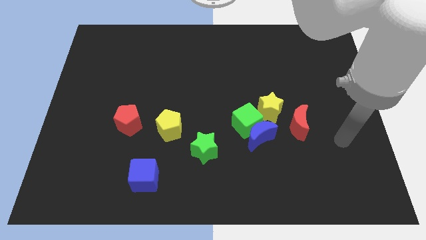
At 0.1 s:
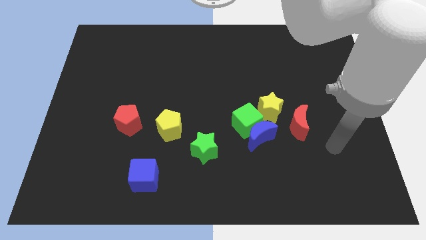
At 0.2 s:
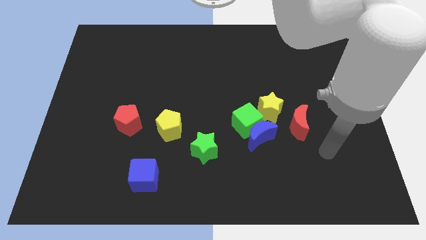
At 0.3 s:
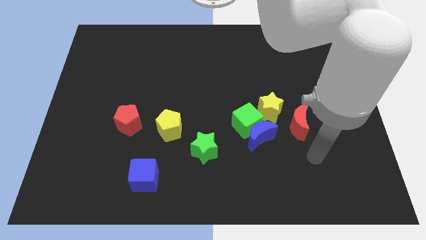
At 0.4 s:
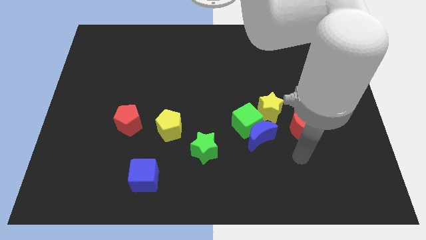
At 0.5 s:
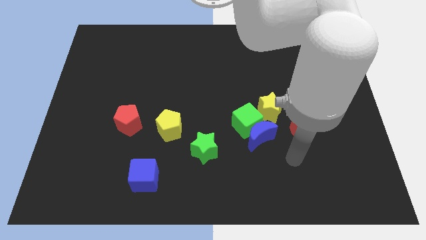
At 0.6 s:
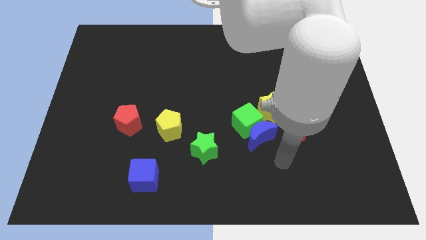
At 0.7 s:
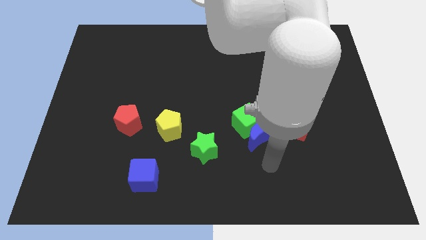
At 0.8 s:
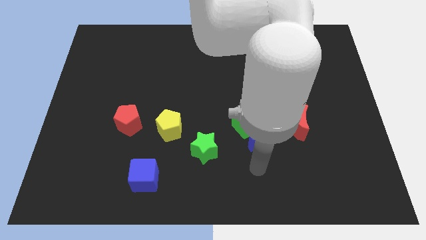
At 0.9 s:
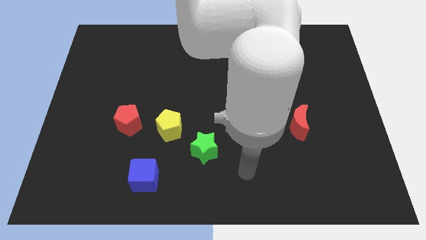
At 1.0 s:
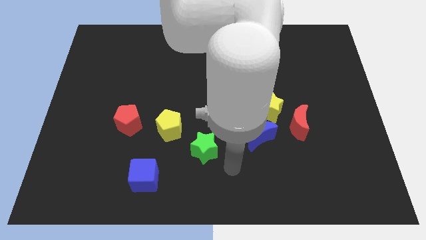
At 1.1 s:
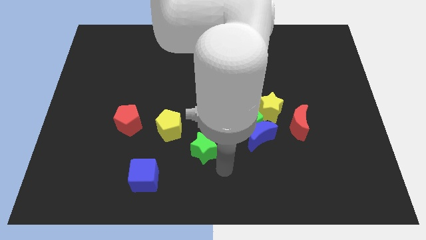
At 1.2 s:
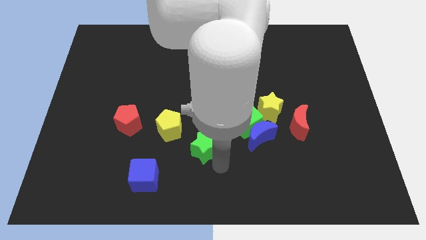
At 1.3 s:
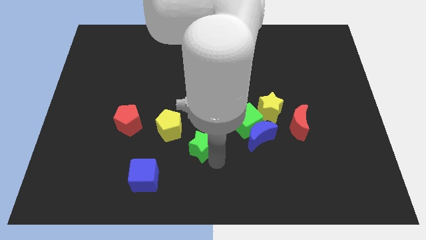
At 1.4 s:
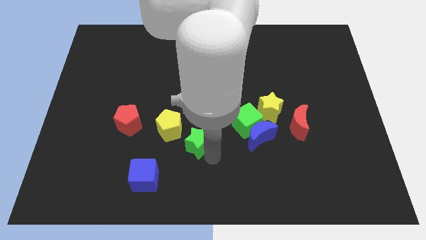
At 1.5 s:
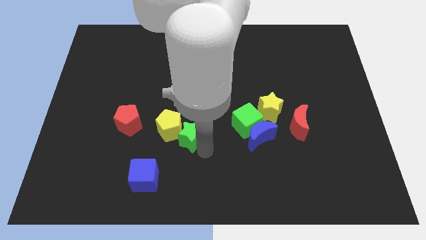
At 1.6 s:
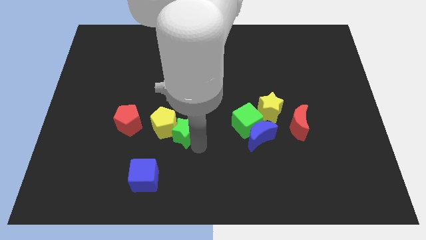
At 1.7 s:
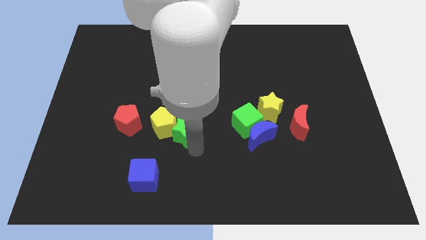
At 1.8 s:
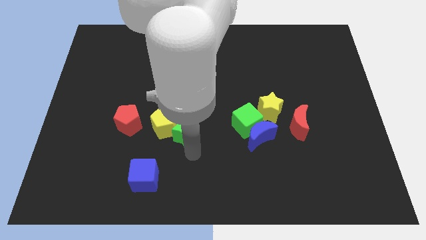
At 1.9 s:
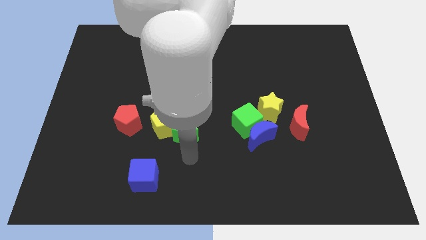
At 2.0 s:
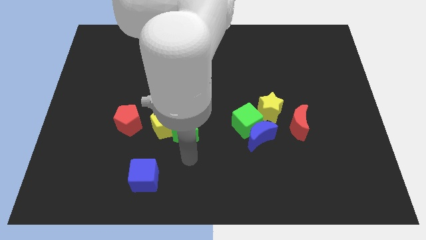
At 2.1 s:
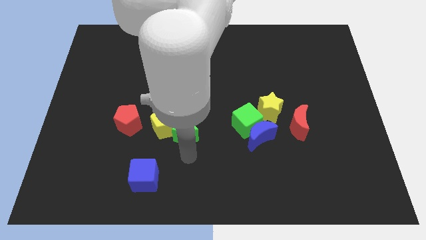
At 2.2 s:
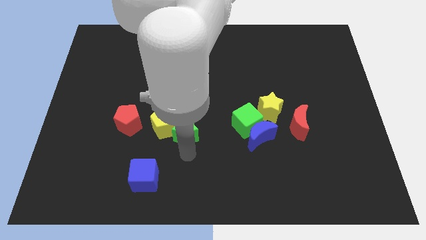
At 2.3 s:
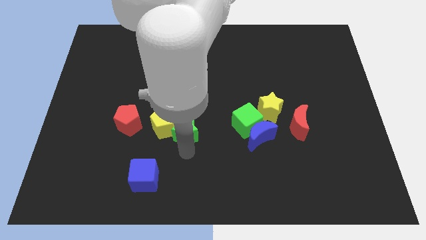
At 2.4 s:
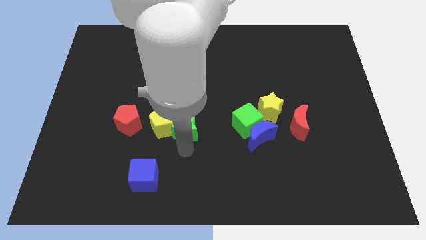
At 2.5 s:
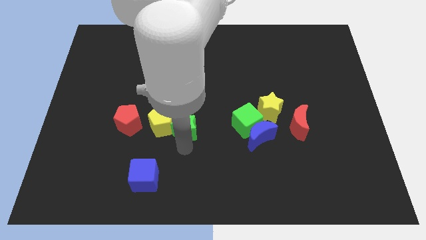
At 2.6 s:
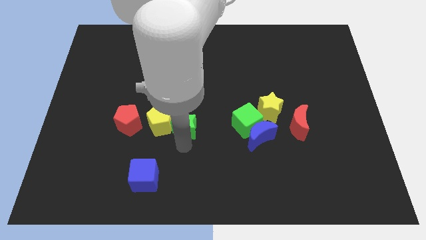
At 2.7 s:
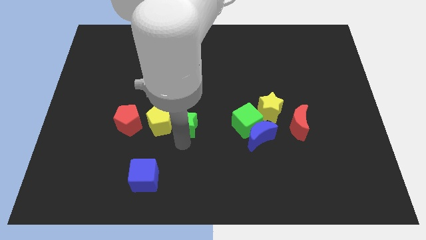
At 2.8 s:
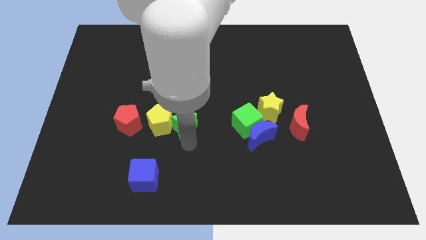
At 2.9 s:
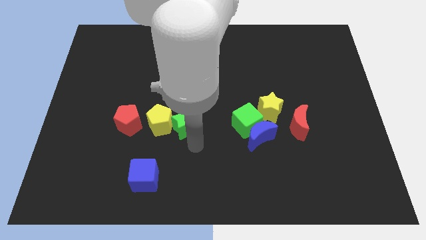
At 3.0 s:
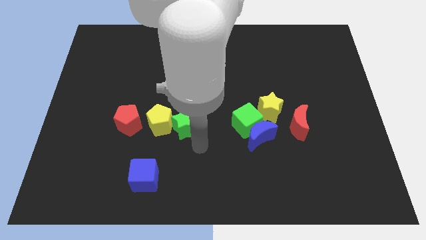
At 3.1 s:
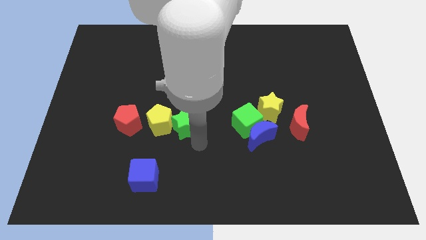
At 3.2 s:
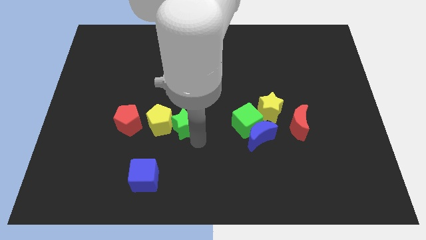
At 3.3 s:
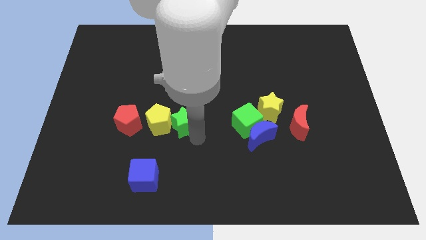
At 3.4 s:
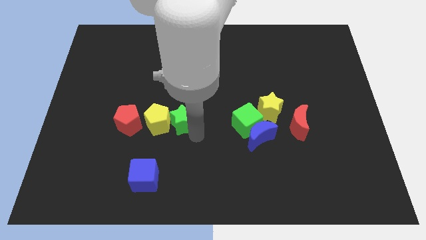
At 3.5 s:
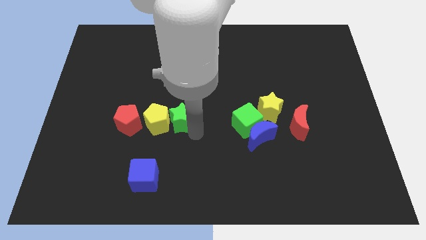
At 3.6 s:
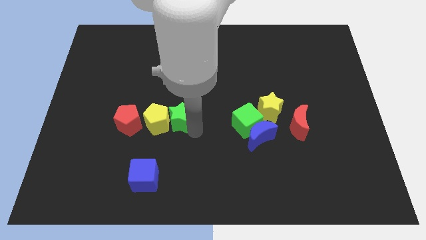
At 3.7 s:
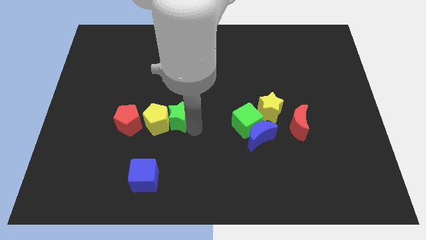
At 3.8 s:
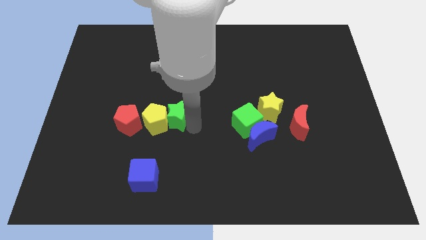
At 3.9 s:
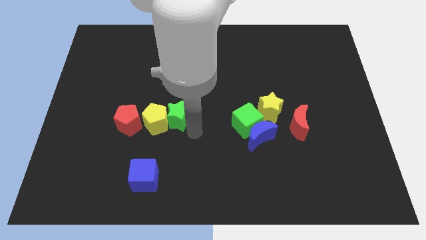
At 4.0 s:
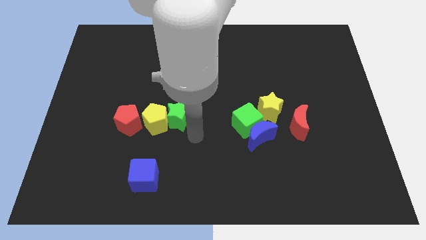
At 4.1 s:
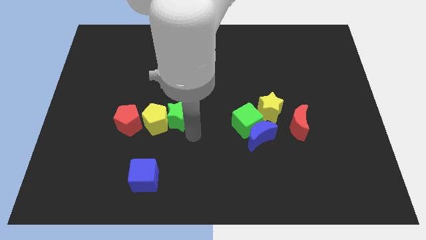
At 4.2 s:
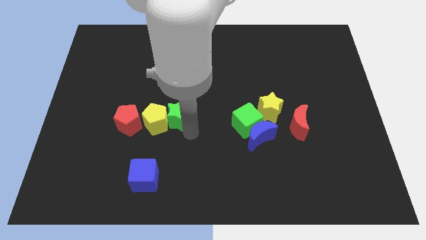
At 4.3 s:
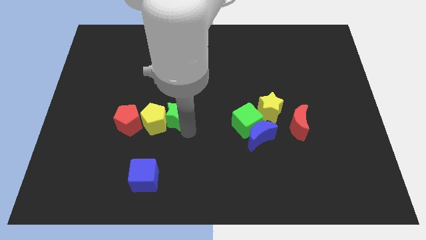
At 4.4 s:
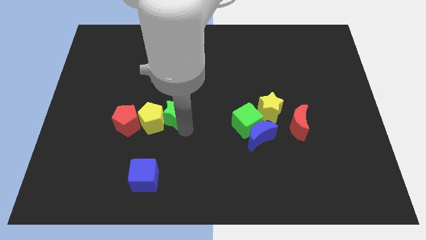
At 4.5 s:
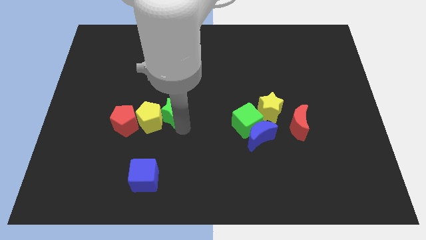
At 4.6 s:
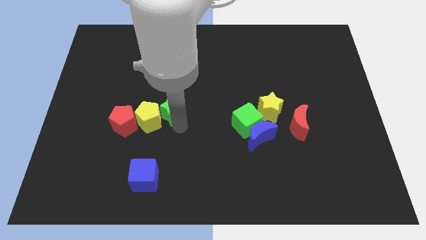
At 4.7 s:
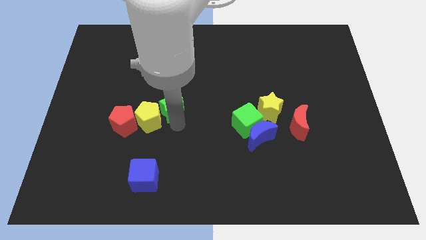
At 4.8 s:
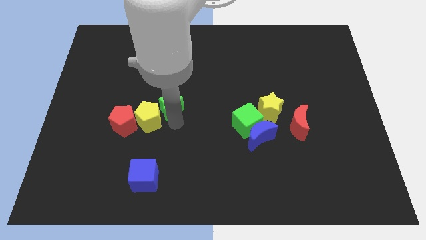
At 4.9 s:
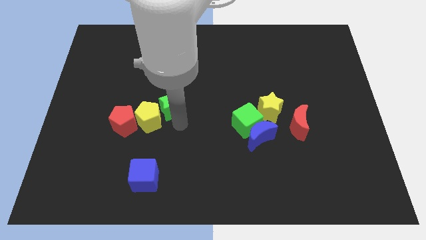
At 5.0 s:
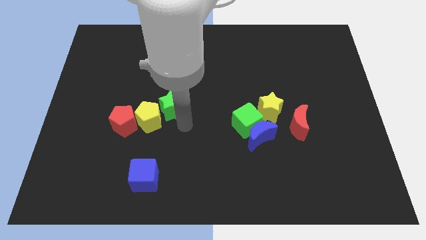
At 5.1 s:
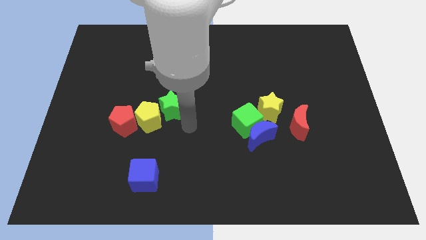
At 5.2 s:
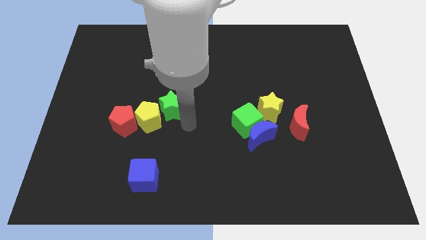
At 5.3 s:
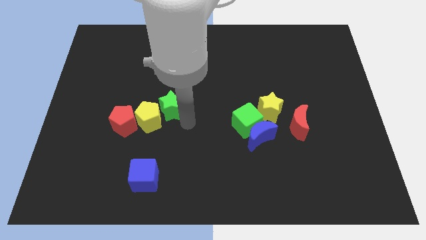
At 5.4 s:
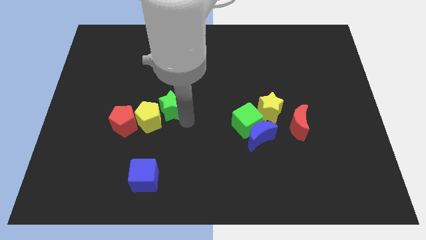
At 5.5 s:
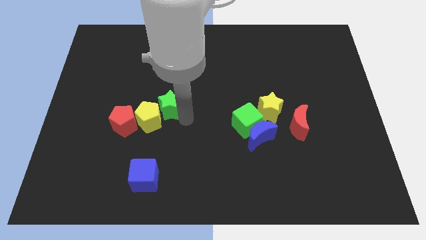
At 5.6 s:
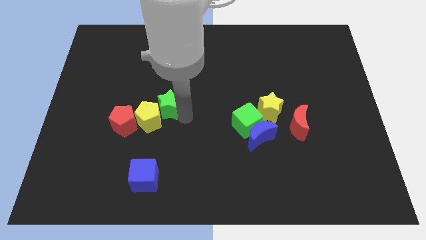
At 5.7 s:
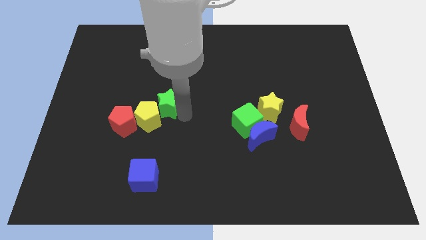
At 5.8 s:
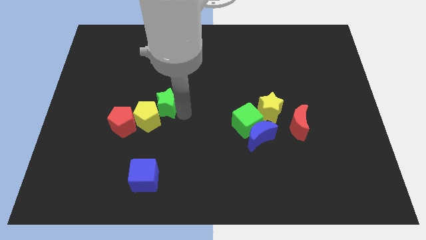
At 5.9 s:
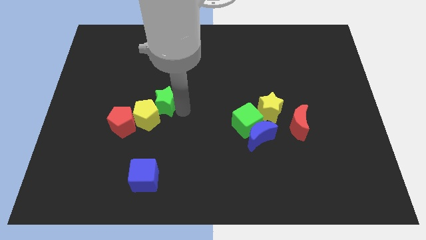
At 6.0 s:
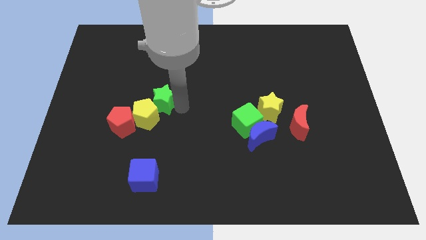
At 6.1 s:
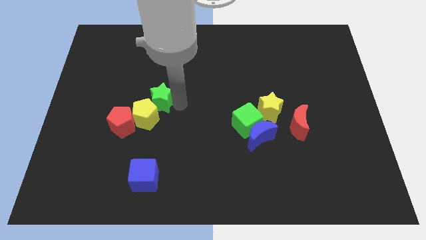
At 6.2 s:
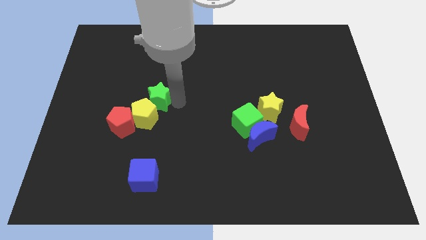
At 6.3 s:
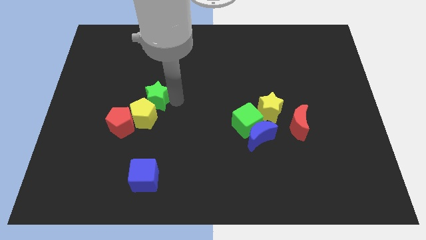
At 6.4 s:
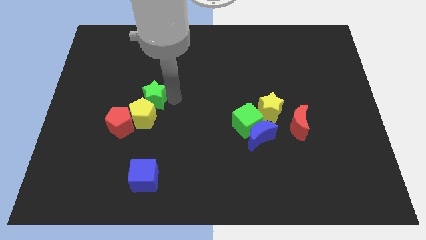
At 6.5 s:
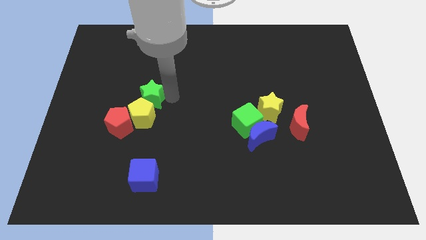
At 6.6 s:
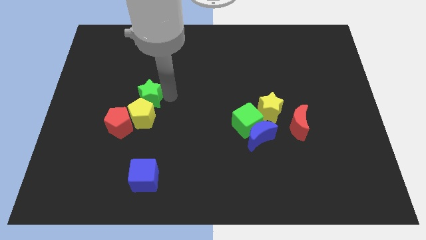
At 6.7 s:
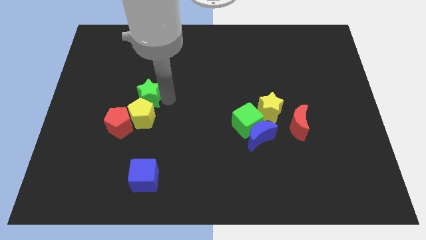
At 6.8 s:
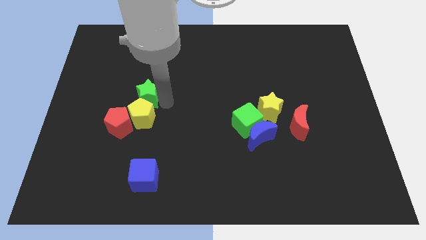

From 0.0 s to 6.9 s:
move the green star diagonally up and to the left

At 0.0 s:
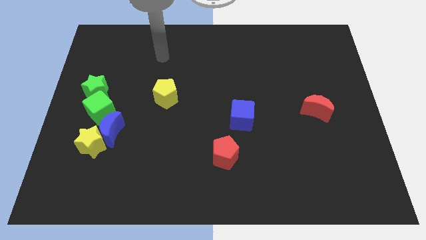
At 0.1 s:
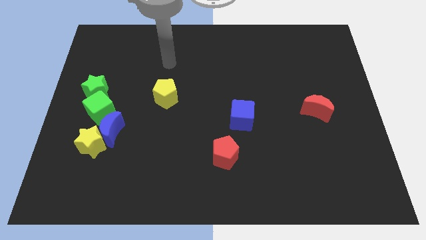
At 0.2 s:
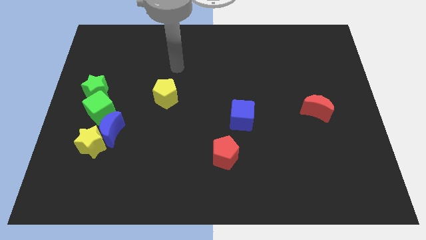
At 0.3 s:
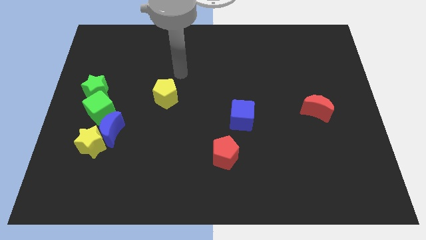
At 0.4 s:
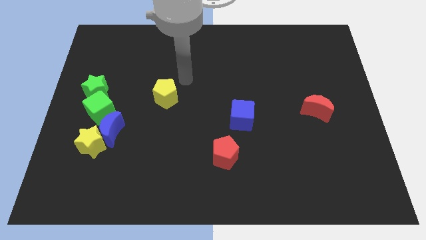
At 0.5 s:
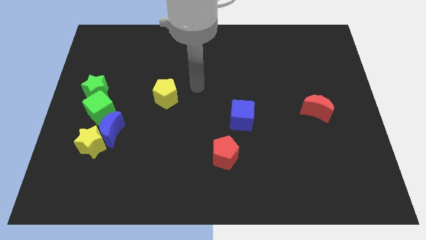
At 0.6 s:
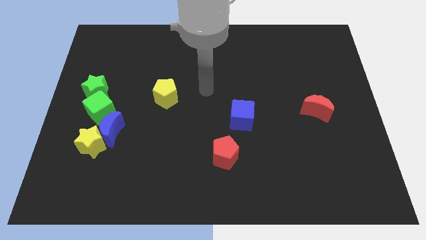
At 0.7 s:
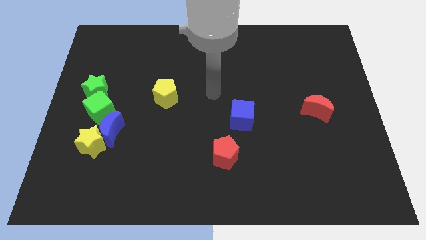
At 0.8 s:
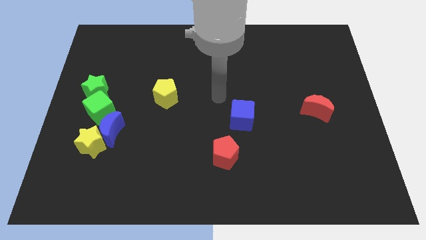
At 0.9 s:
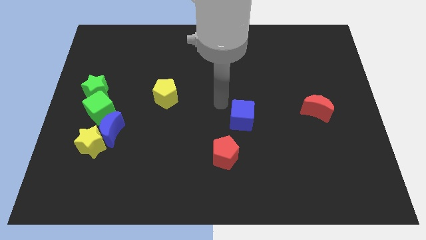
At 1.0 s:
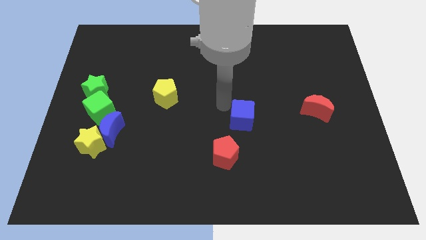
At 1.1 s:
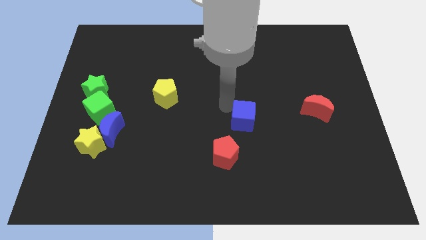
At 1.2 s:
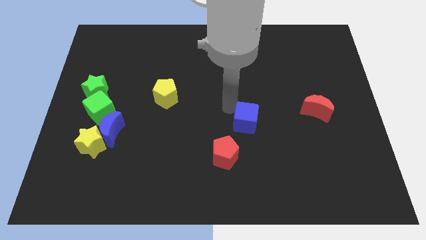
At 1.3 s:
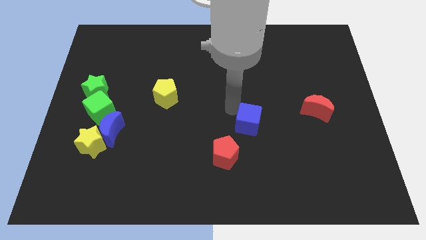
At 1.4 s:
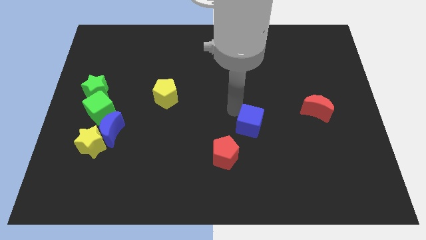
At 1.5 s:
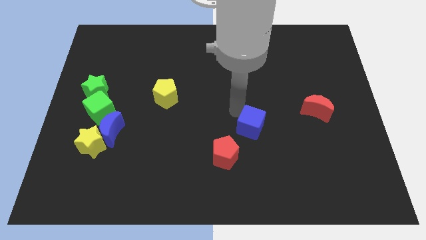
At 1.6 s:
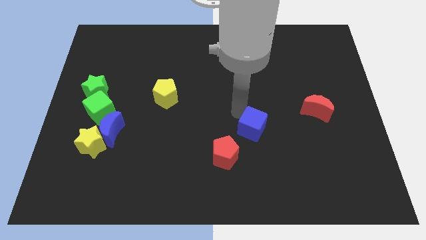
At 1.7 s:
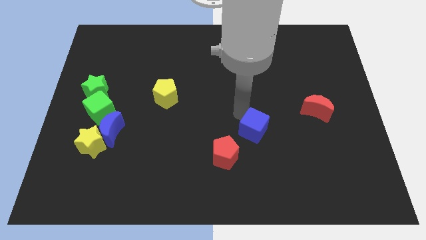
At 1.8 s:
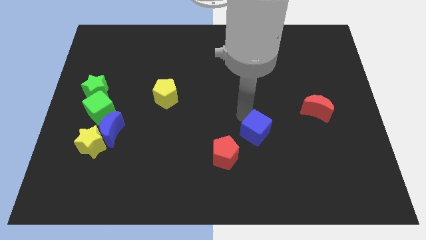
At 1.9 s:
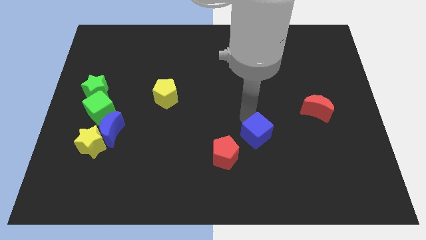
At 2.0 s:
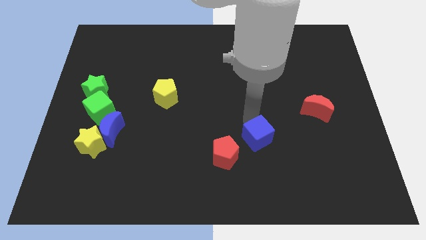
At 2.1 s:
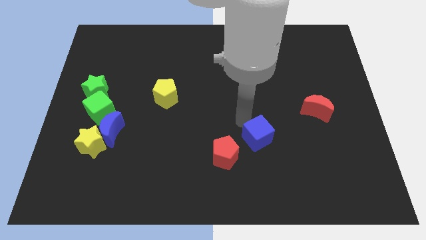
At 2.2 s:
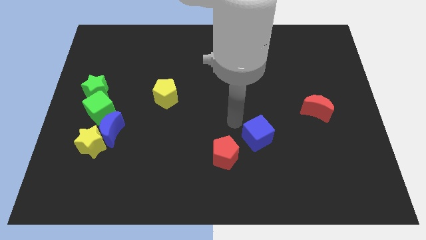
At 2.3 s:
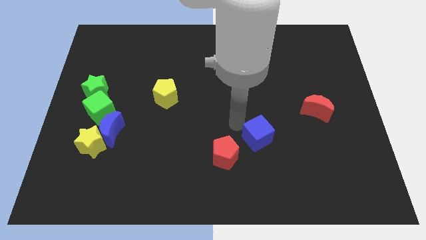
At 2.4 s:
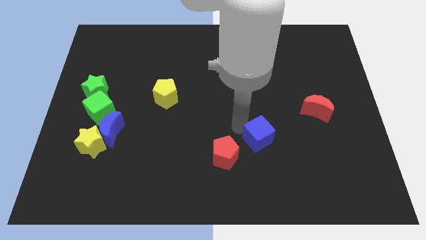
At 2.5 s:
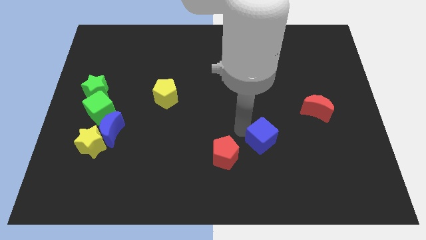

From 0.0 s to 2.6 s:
slightly move the blue cube down and to the right diagonally
